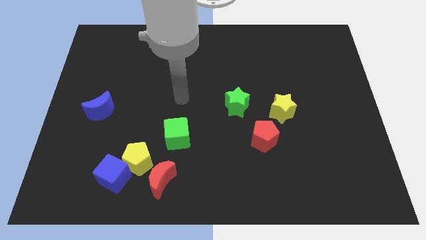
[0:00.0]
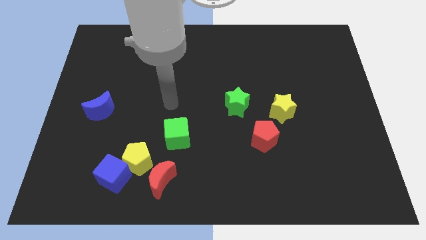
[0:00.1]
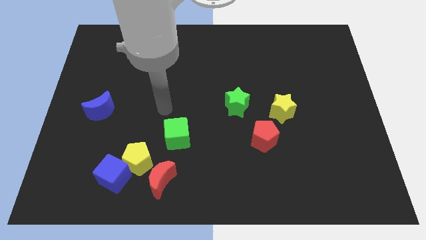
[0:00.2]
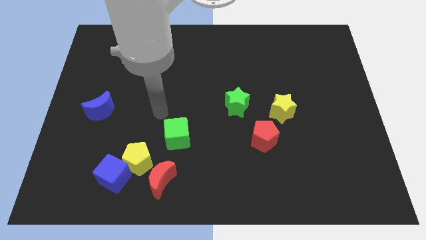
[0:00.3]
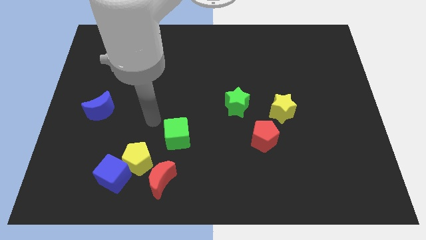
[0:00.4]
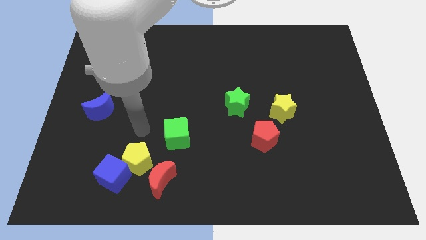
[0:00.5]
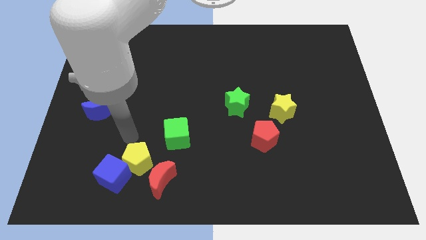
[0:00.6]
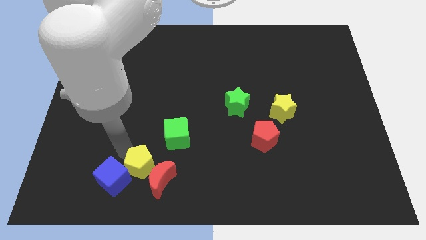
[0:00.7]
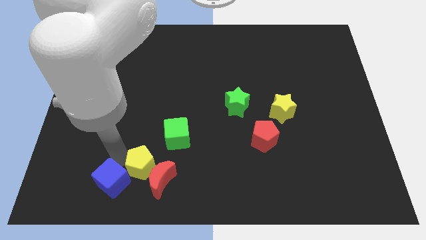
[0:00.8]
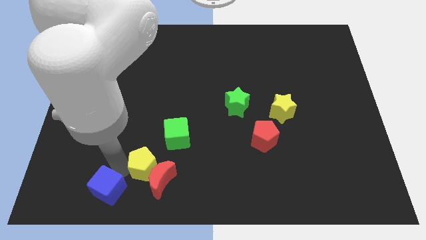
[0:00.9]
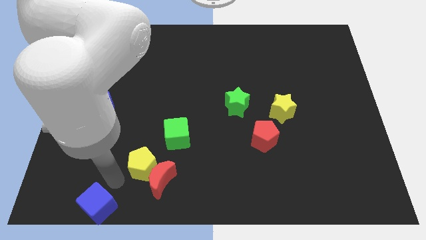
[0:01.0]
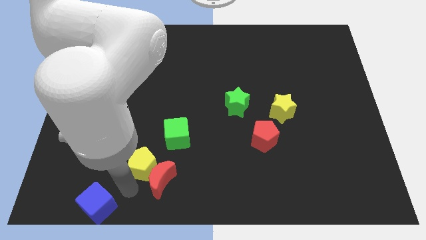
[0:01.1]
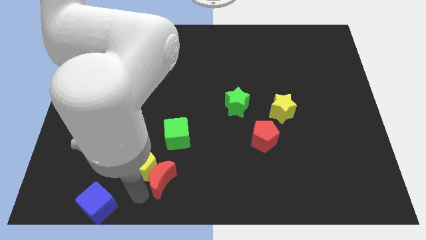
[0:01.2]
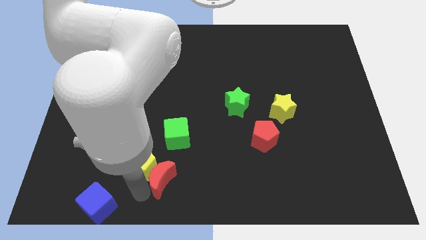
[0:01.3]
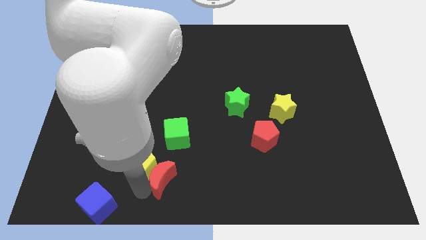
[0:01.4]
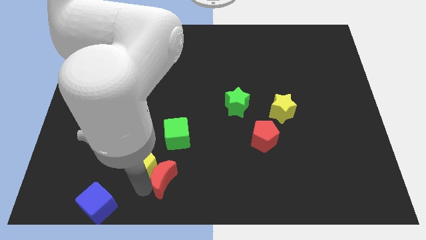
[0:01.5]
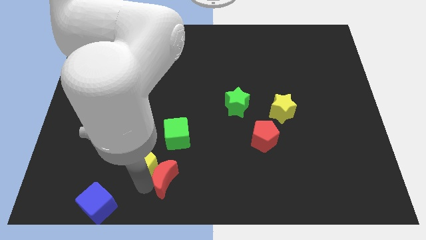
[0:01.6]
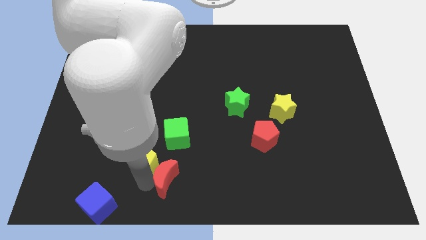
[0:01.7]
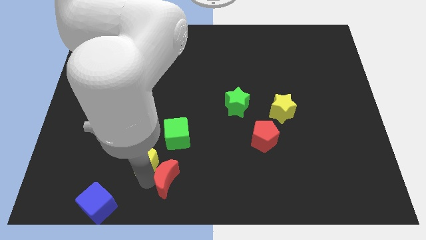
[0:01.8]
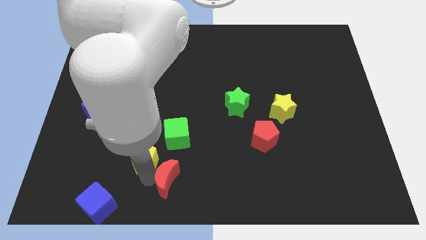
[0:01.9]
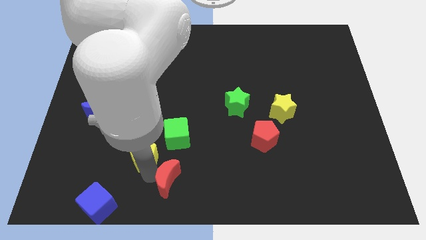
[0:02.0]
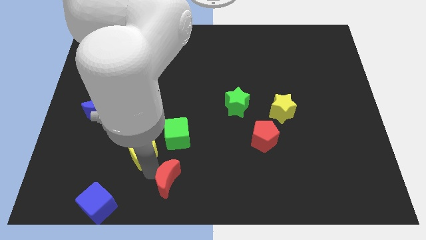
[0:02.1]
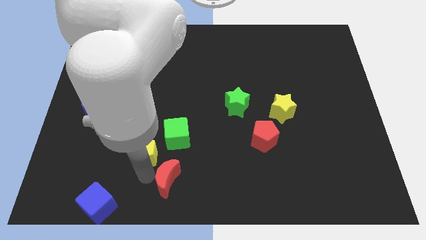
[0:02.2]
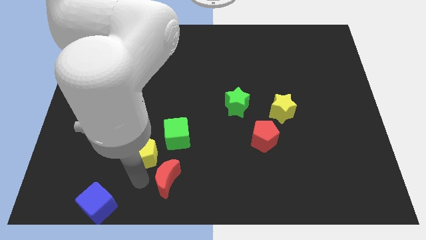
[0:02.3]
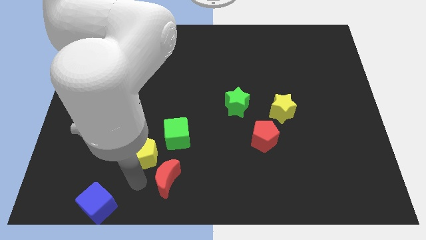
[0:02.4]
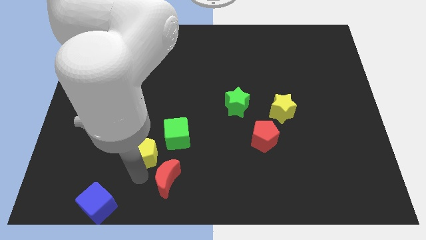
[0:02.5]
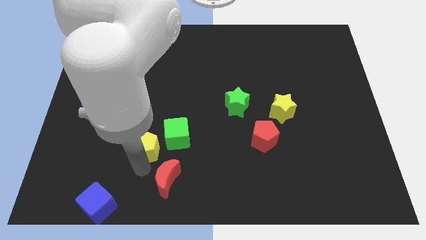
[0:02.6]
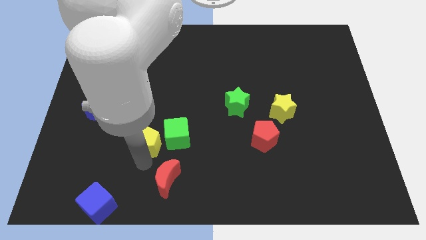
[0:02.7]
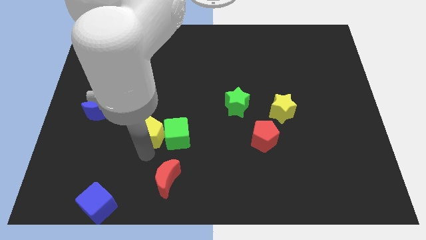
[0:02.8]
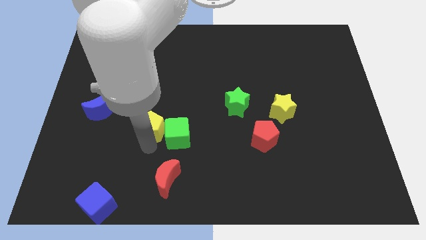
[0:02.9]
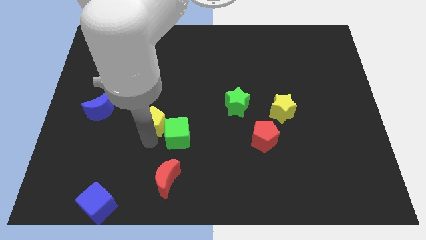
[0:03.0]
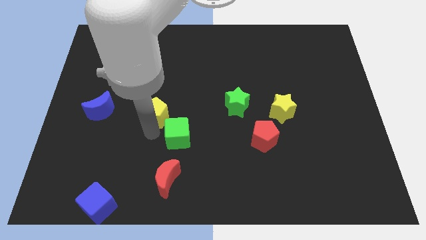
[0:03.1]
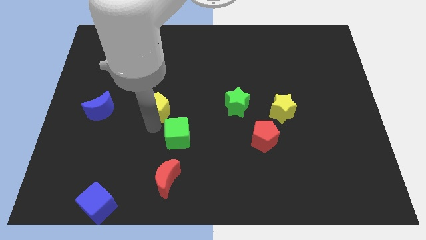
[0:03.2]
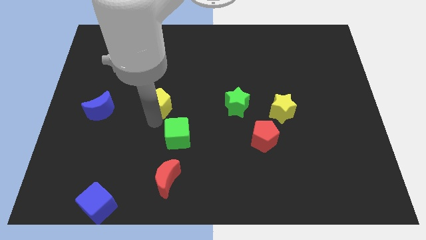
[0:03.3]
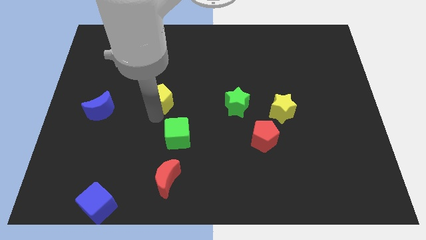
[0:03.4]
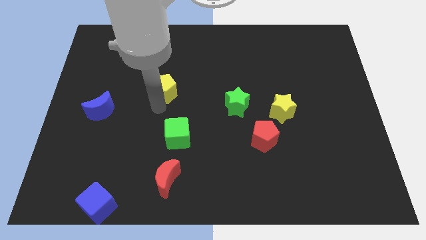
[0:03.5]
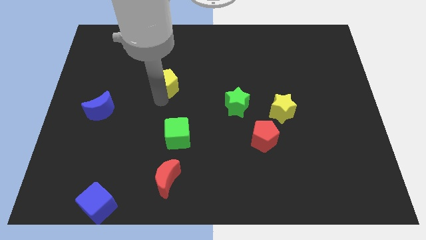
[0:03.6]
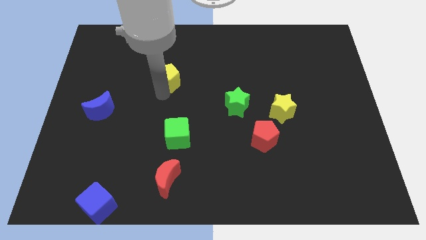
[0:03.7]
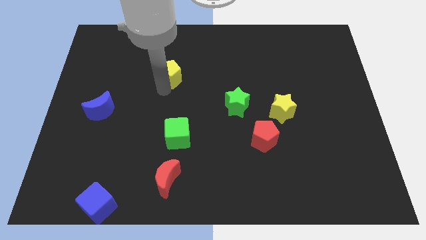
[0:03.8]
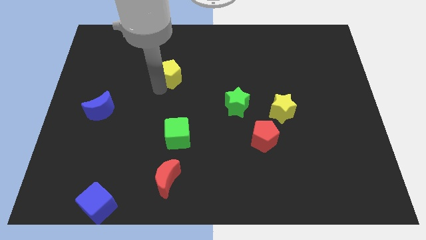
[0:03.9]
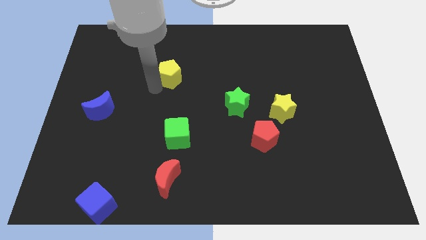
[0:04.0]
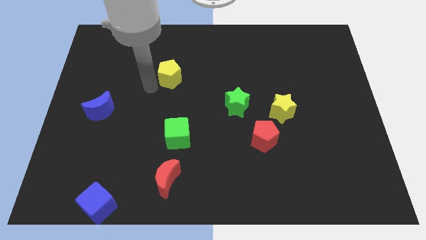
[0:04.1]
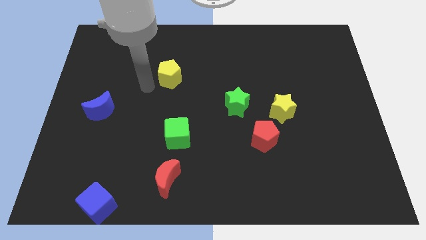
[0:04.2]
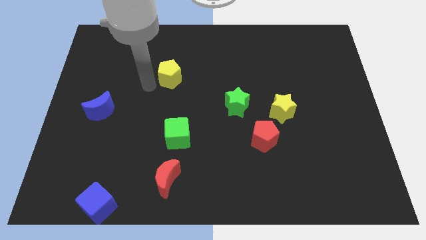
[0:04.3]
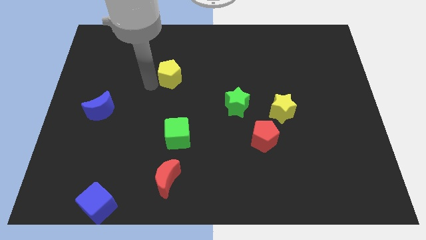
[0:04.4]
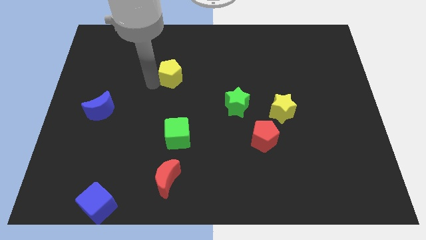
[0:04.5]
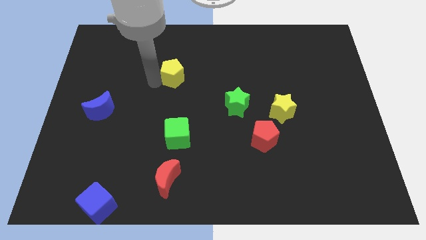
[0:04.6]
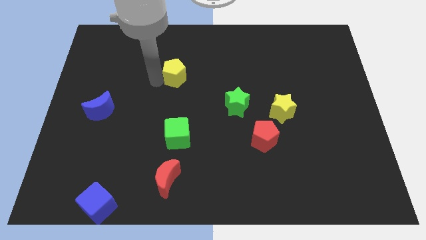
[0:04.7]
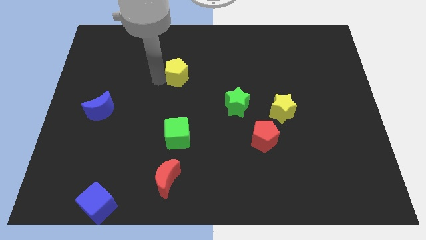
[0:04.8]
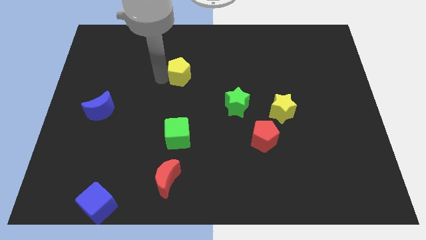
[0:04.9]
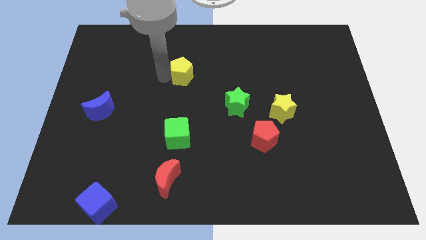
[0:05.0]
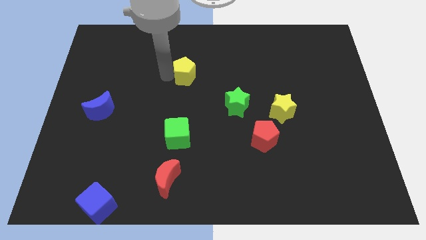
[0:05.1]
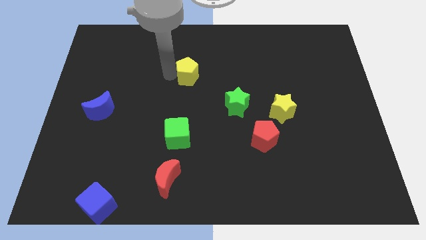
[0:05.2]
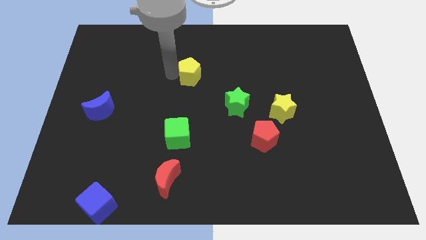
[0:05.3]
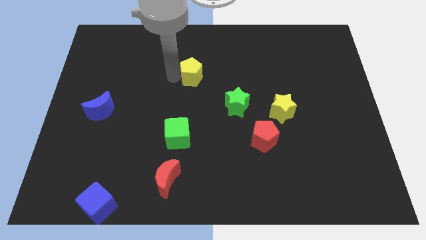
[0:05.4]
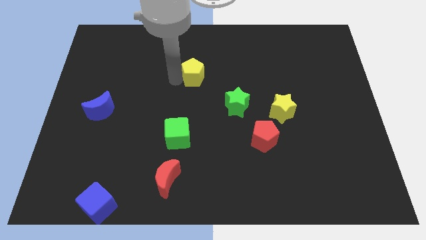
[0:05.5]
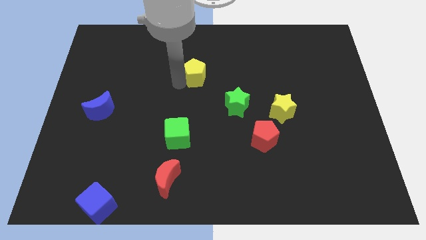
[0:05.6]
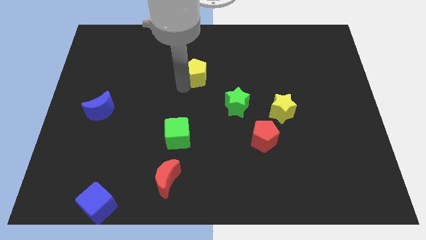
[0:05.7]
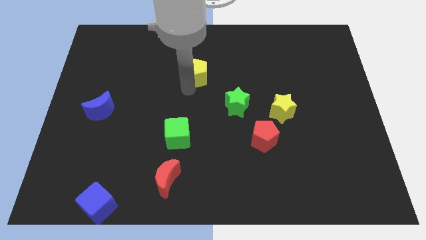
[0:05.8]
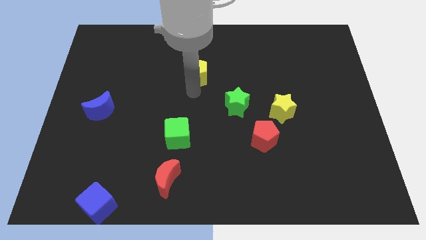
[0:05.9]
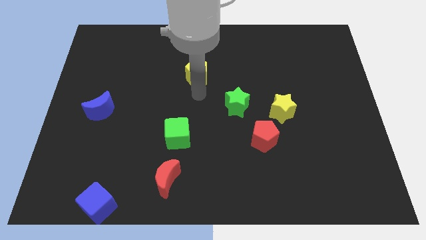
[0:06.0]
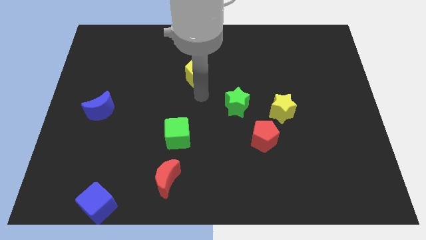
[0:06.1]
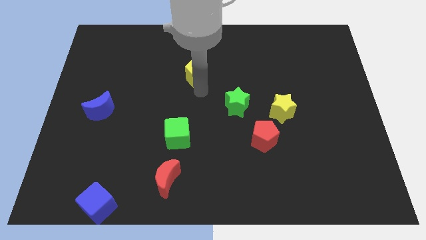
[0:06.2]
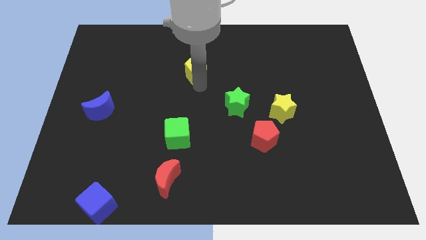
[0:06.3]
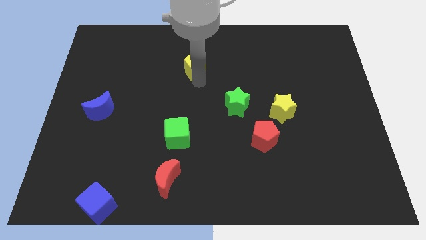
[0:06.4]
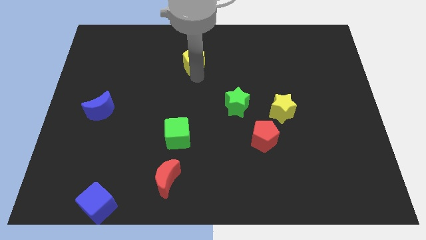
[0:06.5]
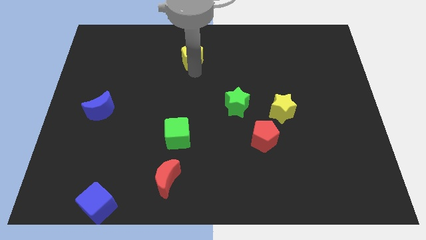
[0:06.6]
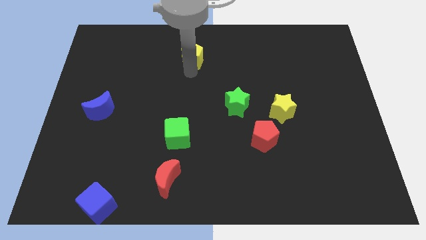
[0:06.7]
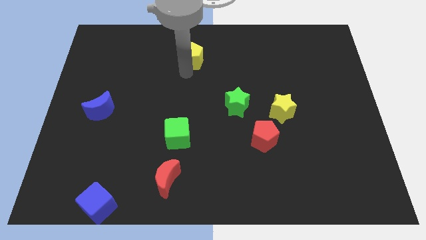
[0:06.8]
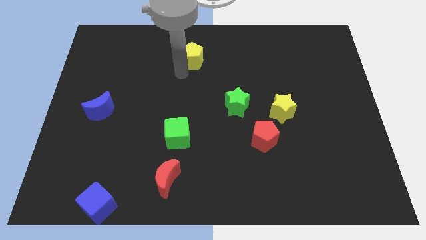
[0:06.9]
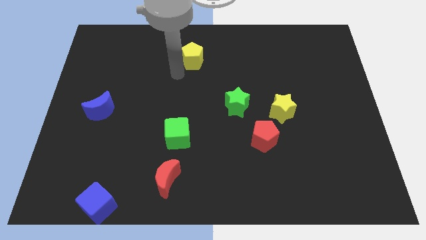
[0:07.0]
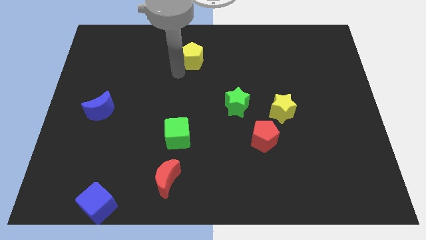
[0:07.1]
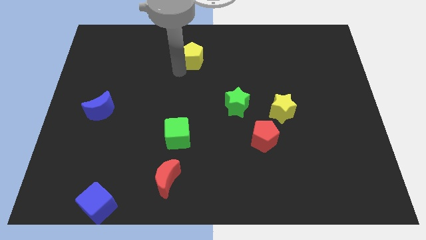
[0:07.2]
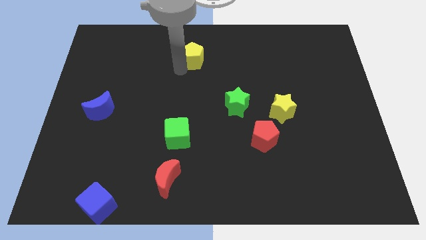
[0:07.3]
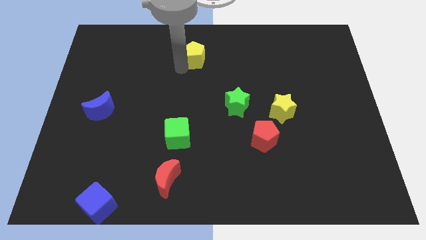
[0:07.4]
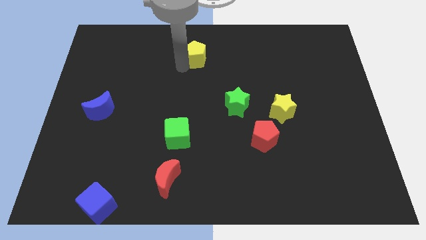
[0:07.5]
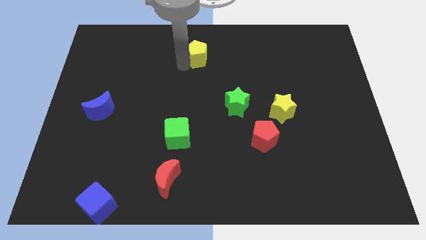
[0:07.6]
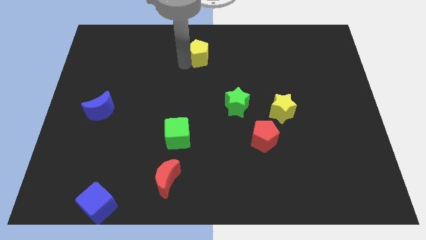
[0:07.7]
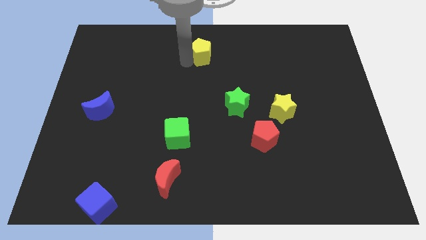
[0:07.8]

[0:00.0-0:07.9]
put the yellow pentagon to the towards your base
